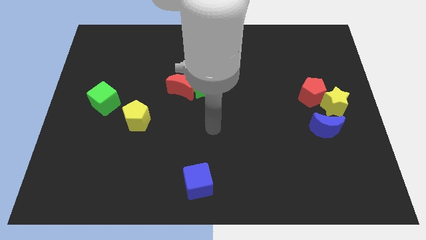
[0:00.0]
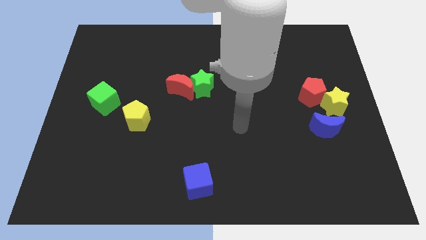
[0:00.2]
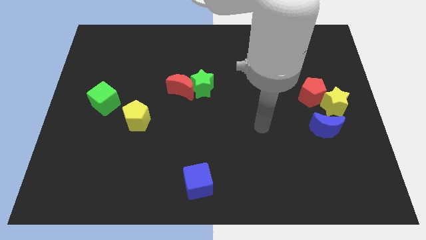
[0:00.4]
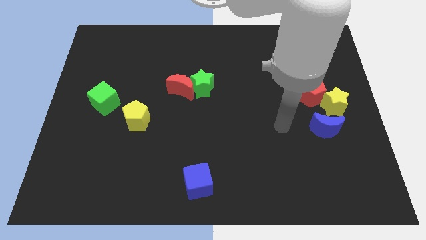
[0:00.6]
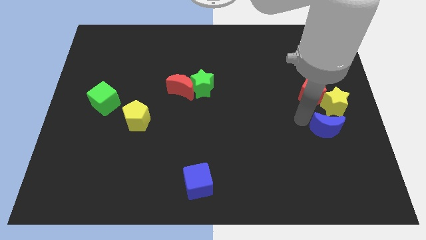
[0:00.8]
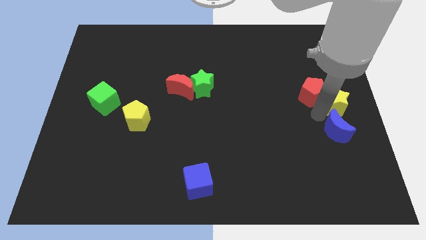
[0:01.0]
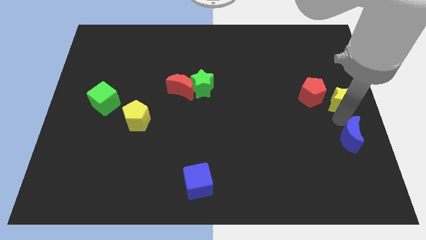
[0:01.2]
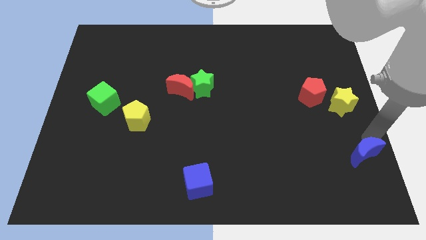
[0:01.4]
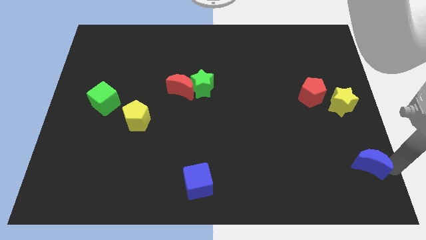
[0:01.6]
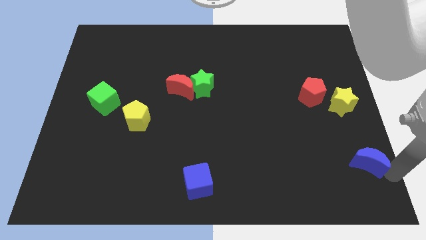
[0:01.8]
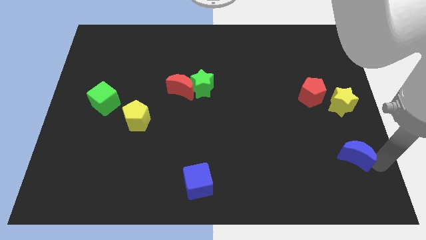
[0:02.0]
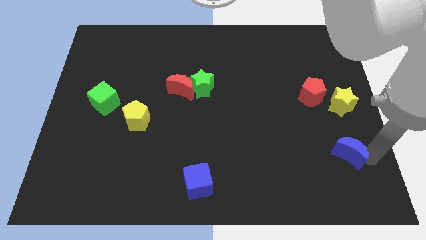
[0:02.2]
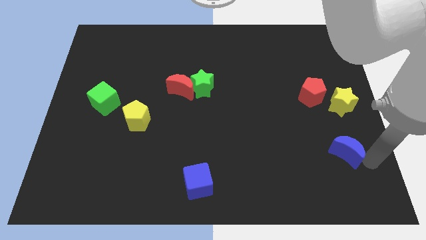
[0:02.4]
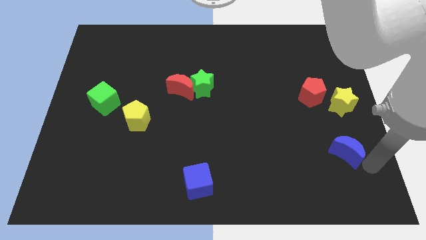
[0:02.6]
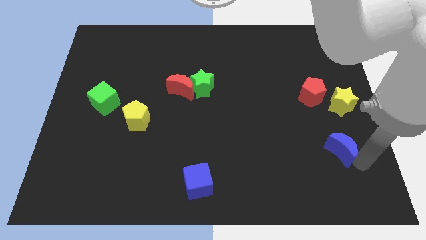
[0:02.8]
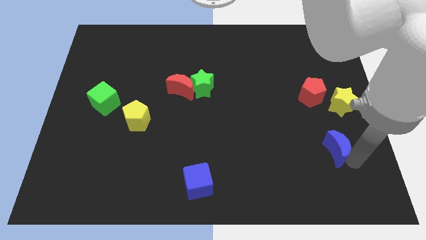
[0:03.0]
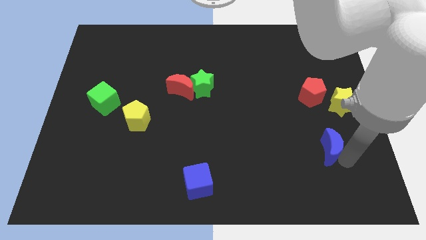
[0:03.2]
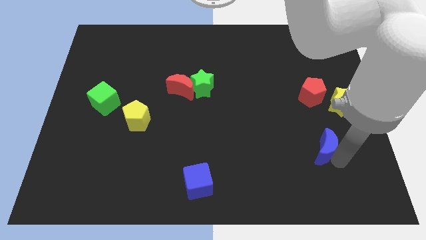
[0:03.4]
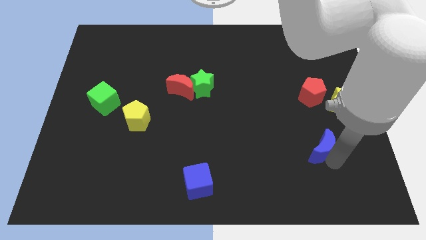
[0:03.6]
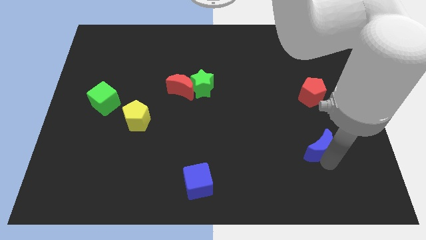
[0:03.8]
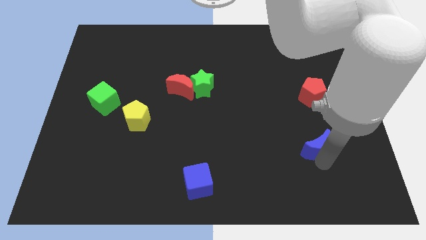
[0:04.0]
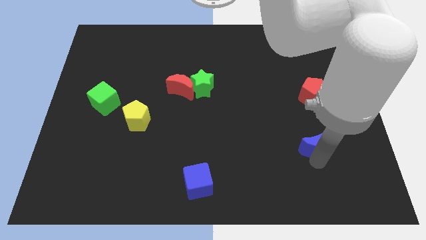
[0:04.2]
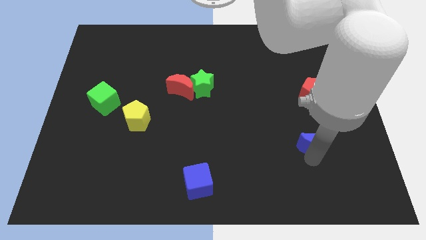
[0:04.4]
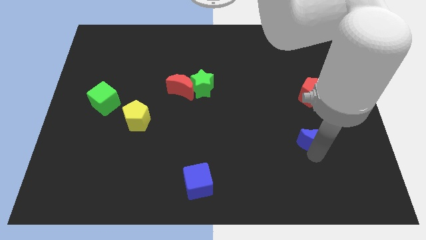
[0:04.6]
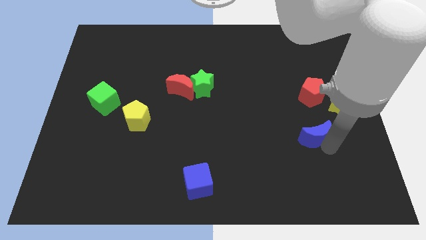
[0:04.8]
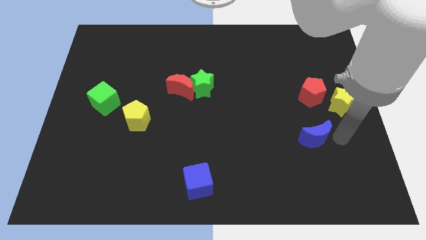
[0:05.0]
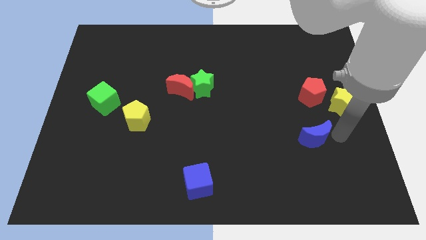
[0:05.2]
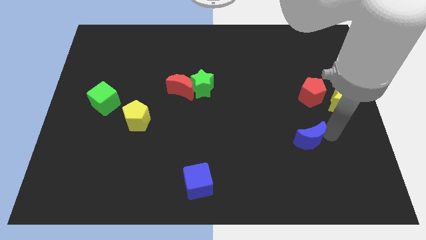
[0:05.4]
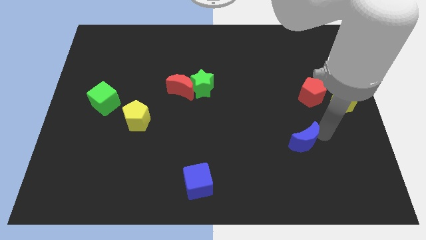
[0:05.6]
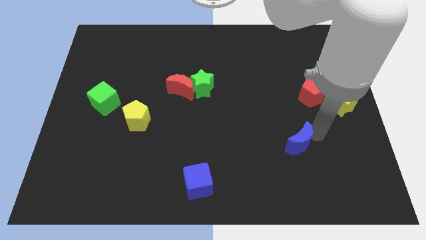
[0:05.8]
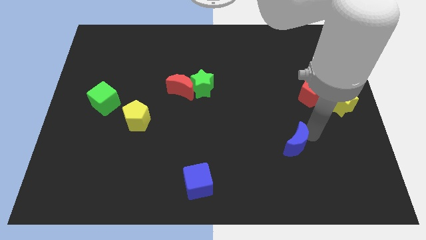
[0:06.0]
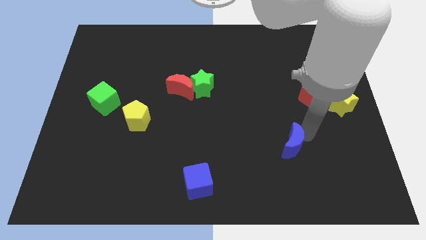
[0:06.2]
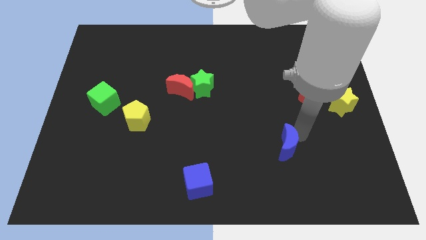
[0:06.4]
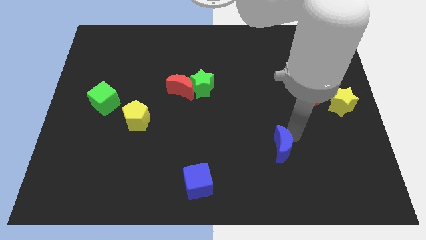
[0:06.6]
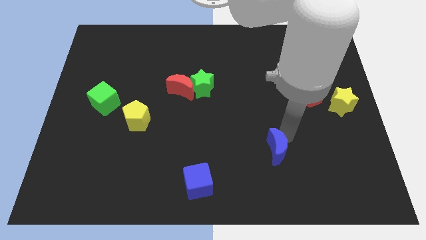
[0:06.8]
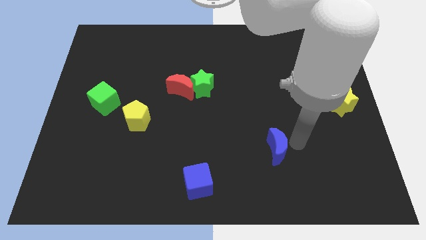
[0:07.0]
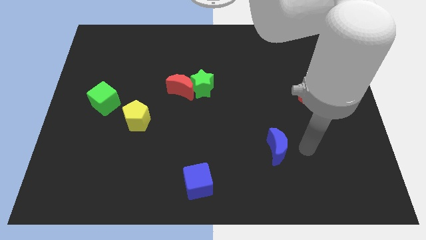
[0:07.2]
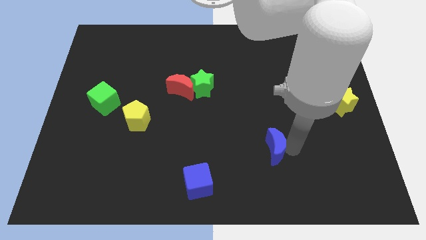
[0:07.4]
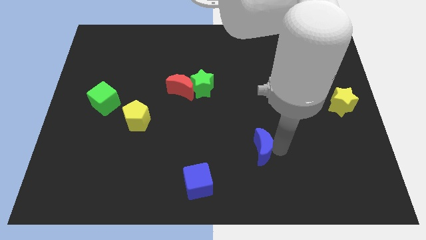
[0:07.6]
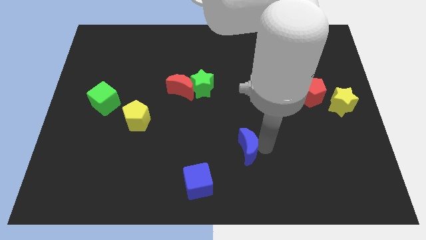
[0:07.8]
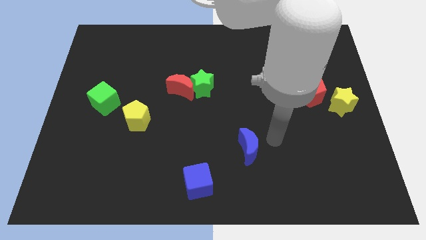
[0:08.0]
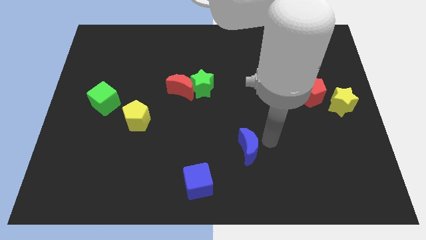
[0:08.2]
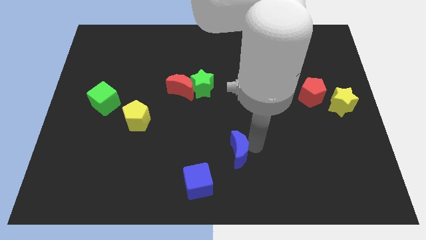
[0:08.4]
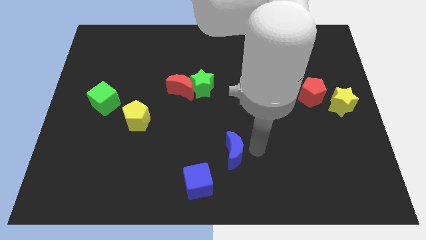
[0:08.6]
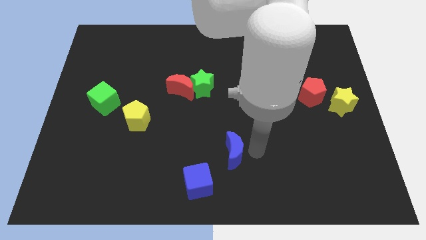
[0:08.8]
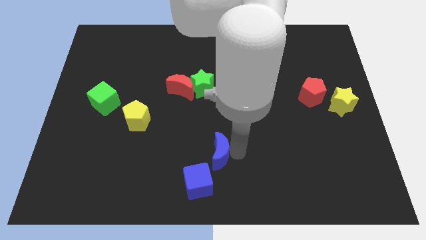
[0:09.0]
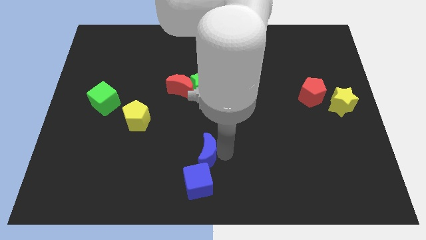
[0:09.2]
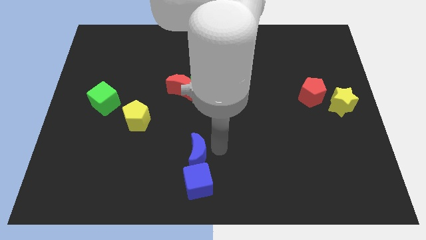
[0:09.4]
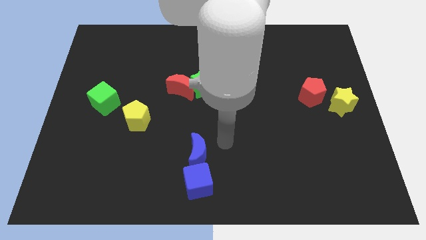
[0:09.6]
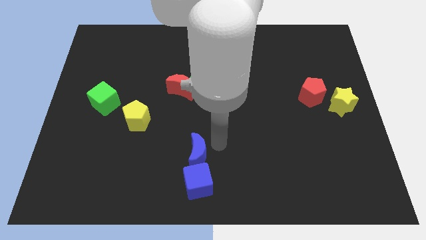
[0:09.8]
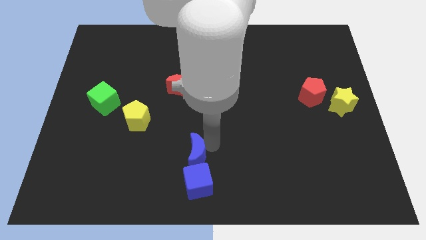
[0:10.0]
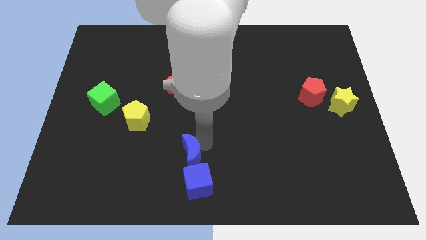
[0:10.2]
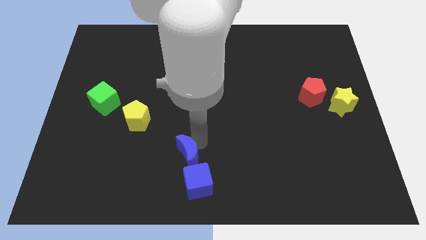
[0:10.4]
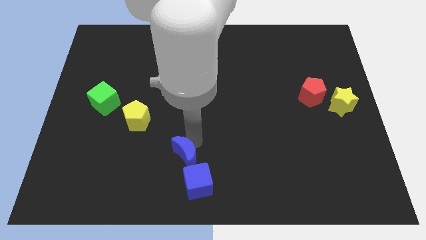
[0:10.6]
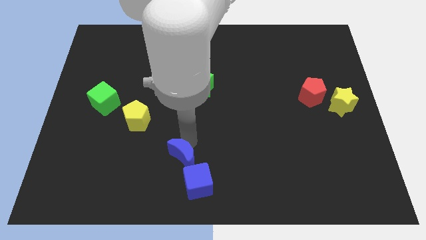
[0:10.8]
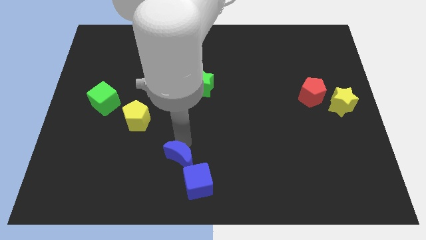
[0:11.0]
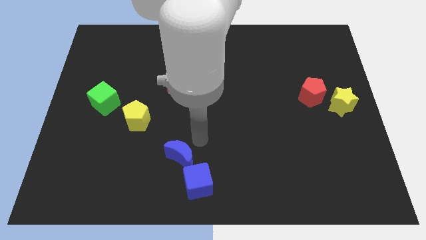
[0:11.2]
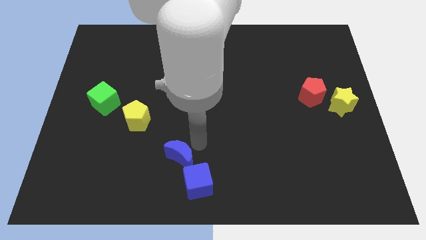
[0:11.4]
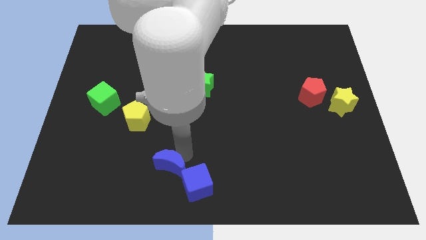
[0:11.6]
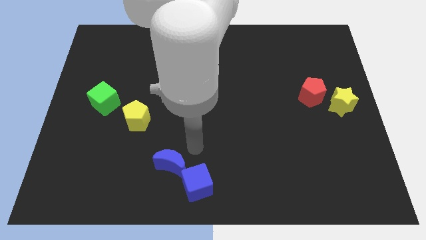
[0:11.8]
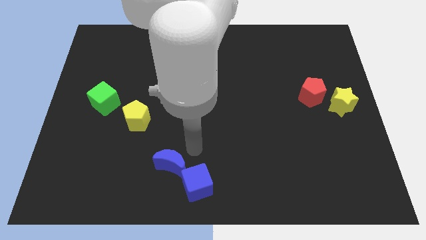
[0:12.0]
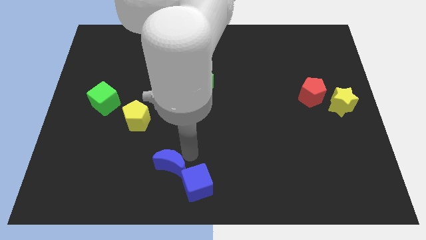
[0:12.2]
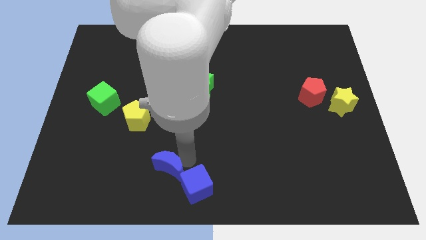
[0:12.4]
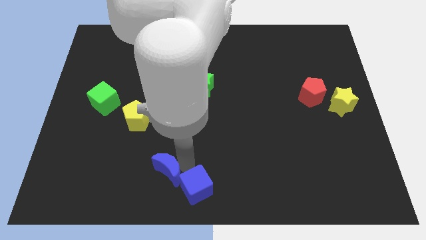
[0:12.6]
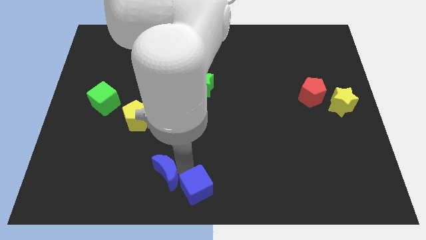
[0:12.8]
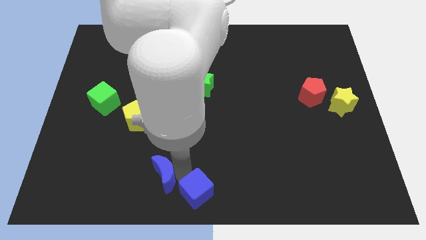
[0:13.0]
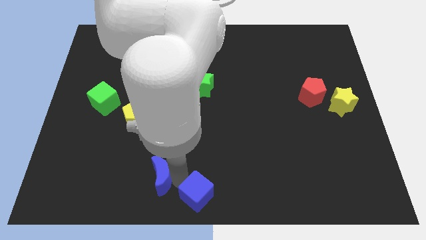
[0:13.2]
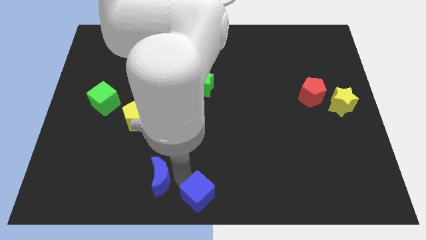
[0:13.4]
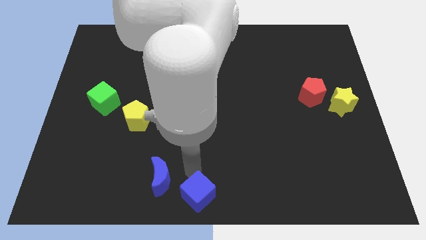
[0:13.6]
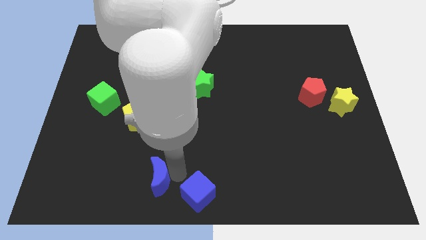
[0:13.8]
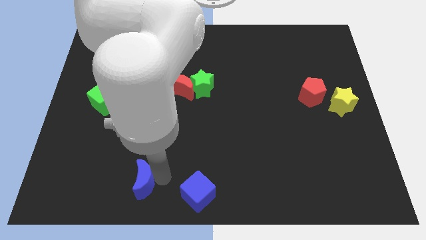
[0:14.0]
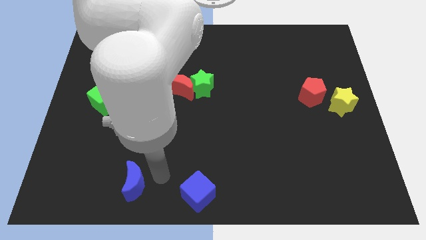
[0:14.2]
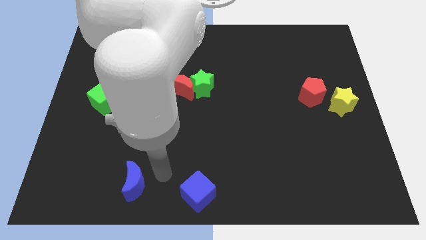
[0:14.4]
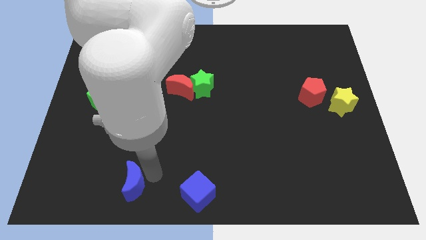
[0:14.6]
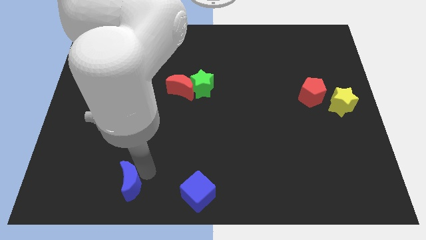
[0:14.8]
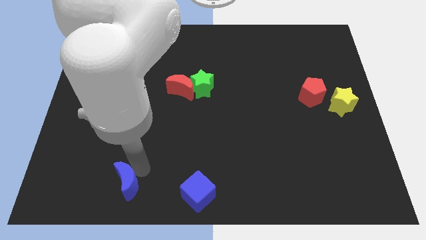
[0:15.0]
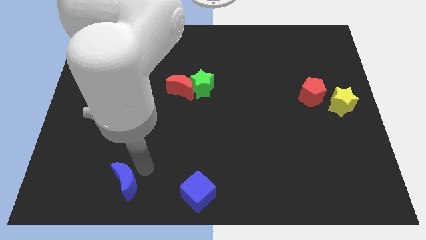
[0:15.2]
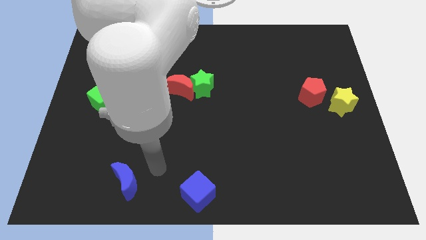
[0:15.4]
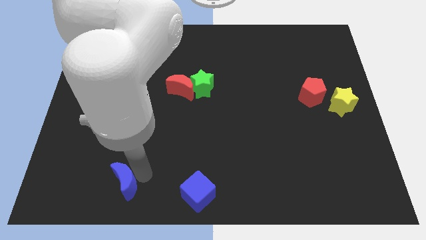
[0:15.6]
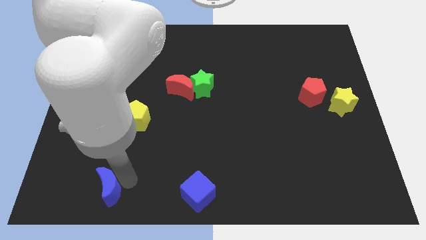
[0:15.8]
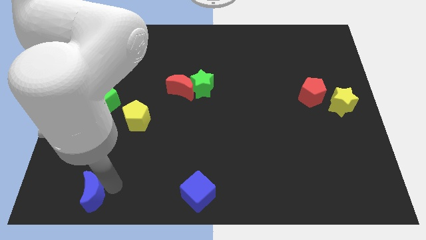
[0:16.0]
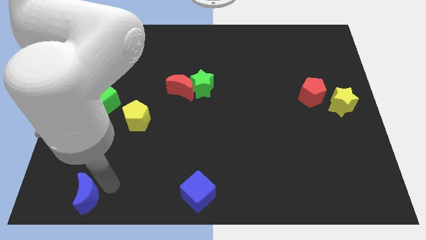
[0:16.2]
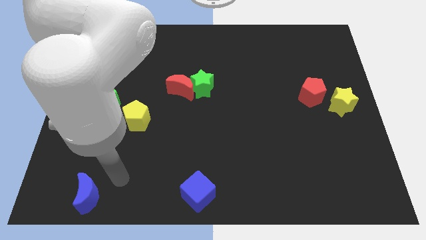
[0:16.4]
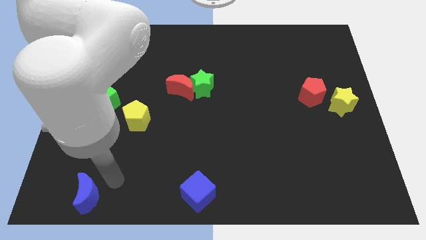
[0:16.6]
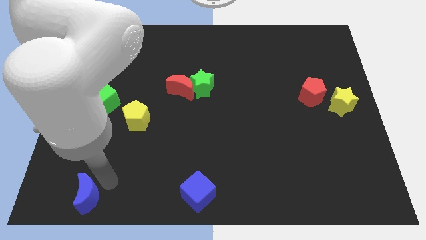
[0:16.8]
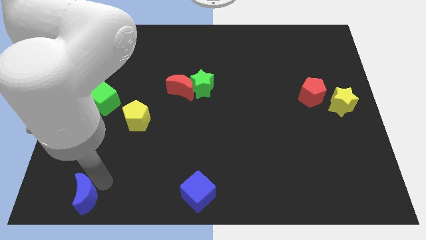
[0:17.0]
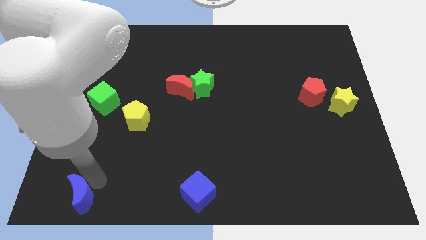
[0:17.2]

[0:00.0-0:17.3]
move the blue moon to the lower left corner
